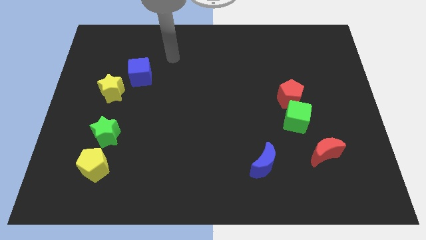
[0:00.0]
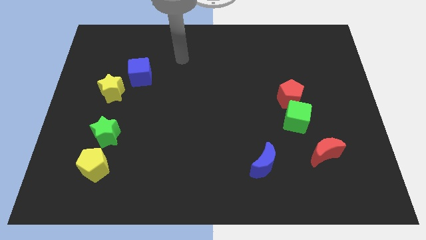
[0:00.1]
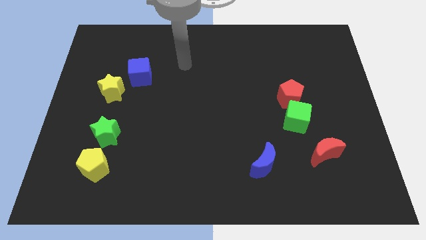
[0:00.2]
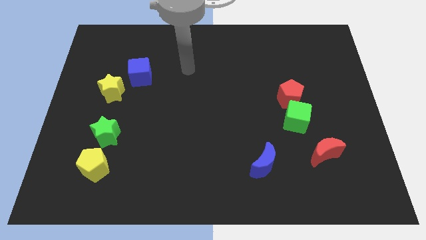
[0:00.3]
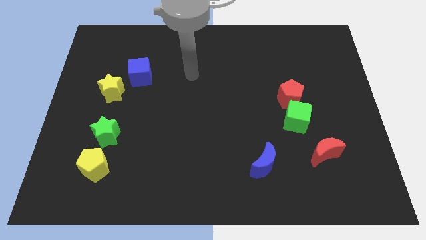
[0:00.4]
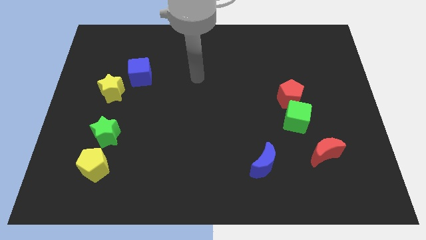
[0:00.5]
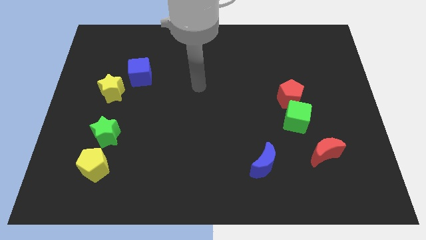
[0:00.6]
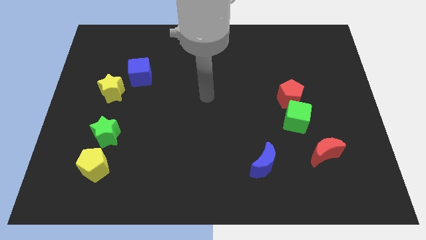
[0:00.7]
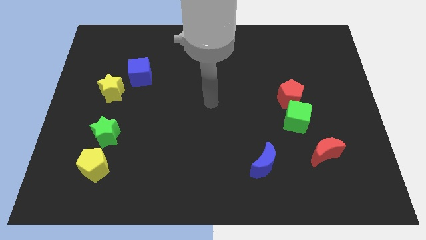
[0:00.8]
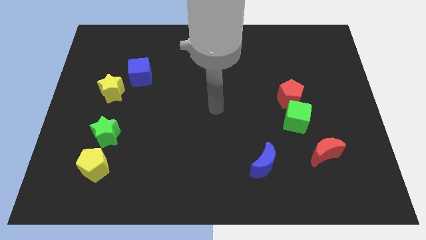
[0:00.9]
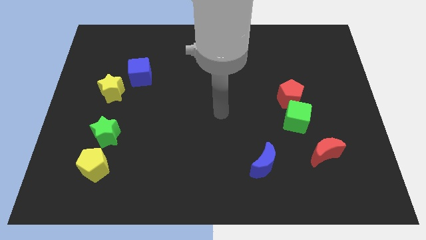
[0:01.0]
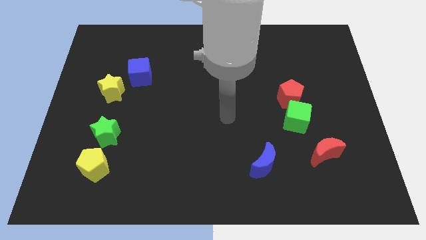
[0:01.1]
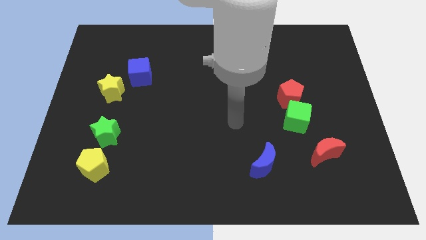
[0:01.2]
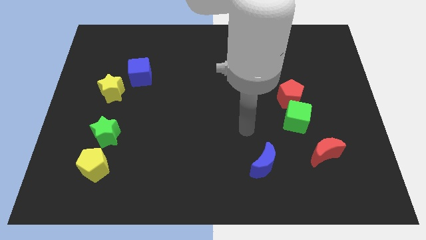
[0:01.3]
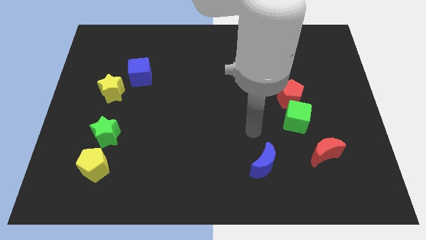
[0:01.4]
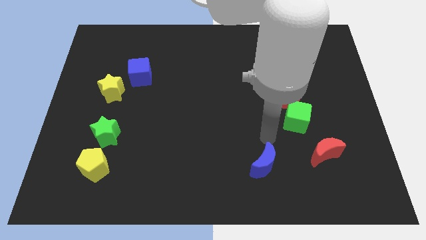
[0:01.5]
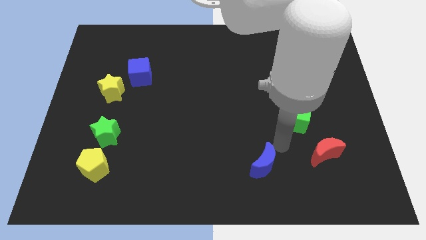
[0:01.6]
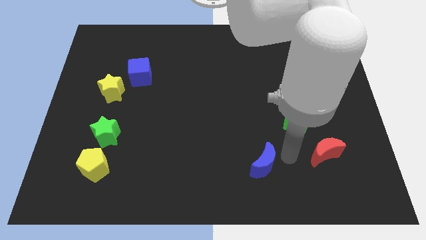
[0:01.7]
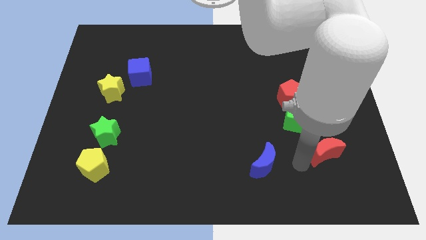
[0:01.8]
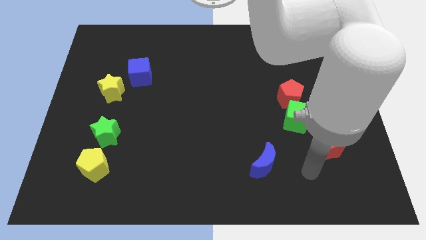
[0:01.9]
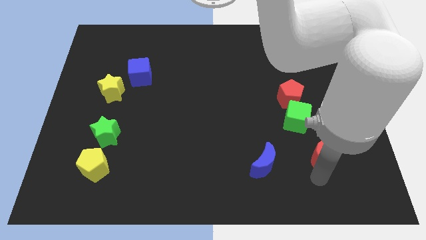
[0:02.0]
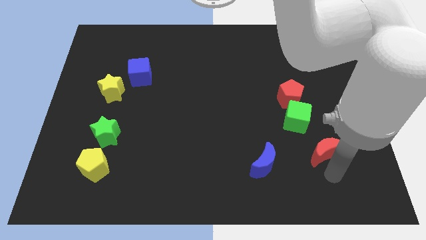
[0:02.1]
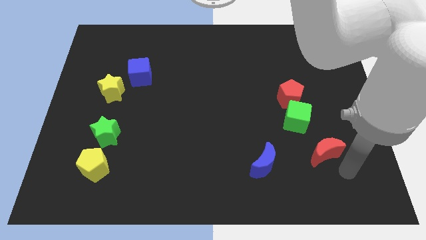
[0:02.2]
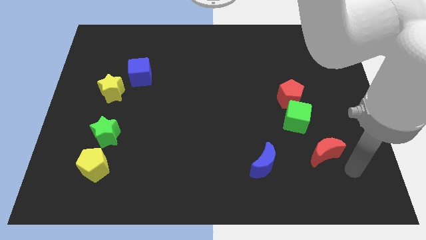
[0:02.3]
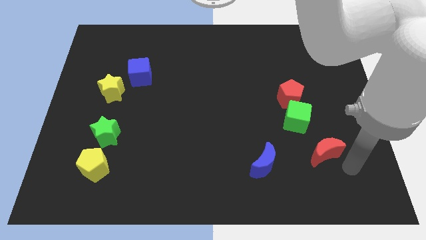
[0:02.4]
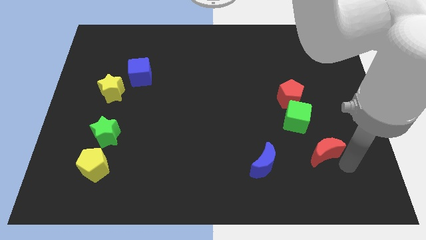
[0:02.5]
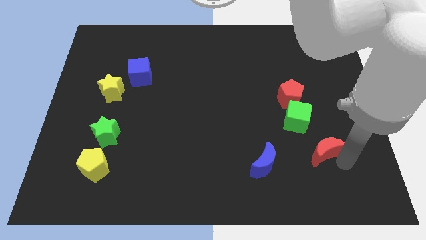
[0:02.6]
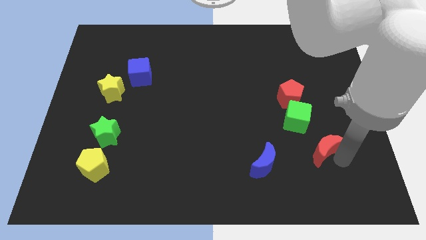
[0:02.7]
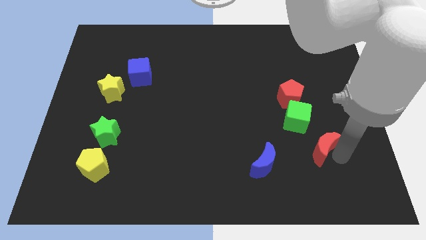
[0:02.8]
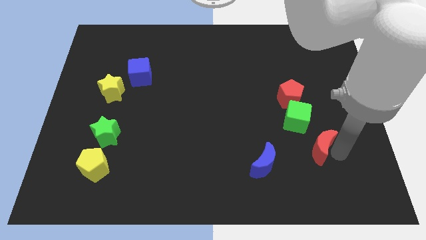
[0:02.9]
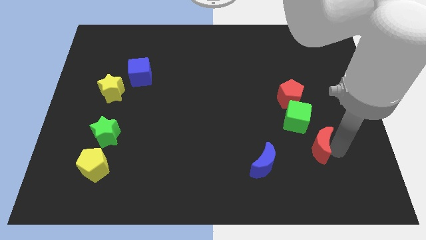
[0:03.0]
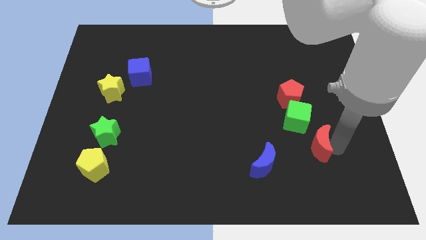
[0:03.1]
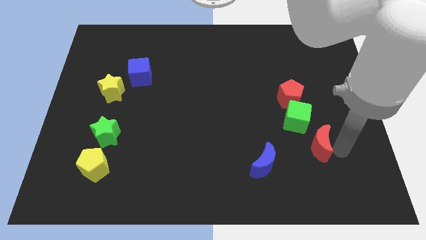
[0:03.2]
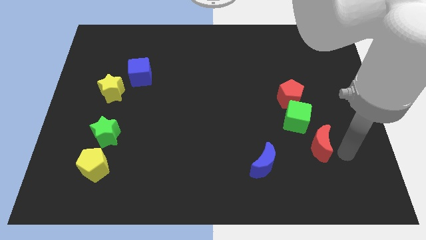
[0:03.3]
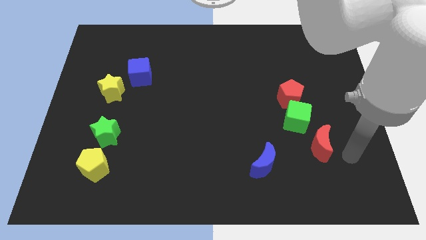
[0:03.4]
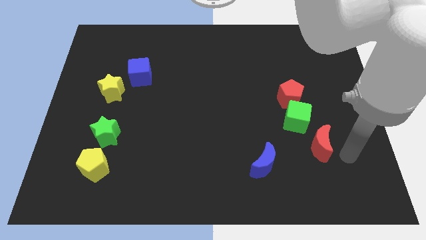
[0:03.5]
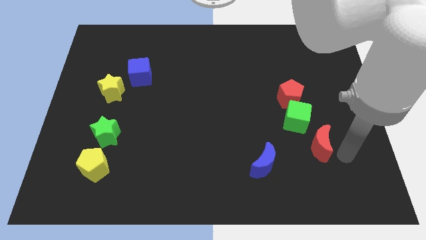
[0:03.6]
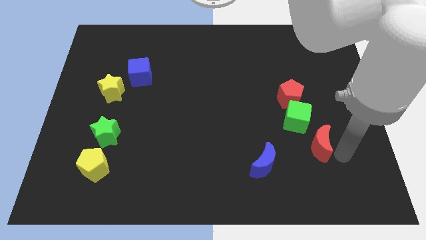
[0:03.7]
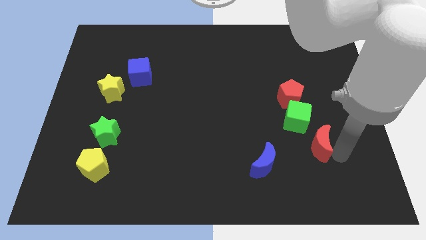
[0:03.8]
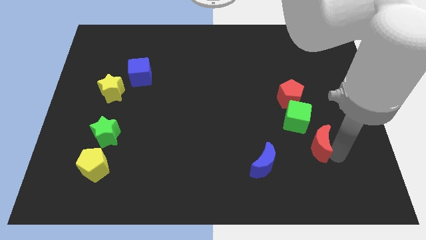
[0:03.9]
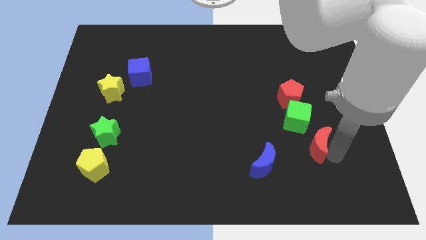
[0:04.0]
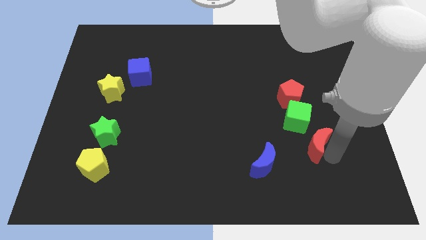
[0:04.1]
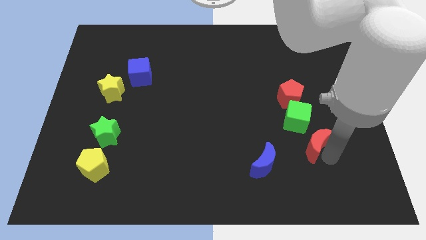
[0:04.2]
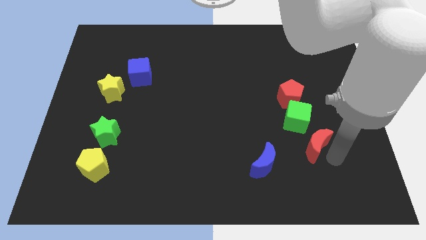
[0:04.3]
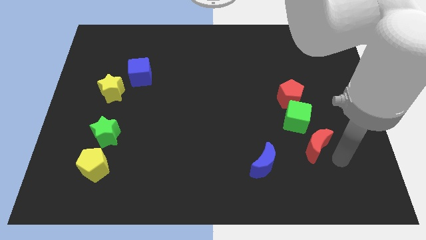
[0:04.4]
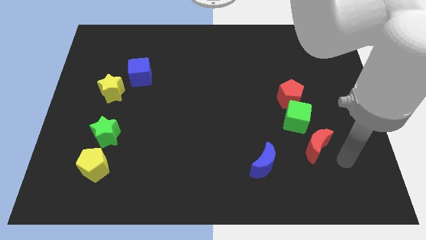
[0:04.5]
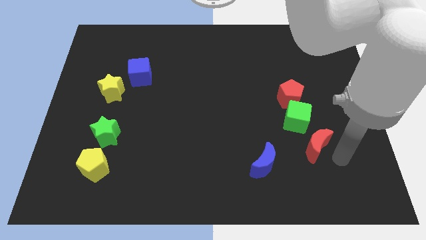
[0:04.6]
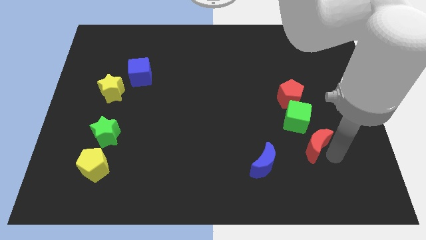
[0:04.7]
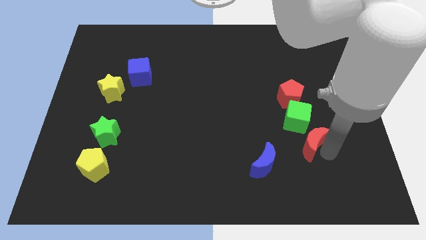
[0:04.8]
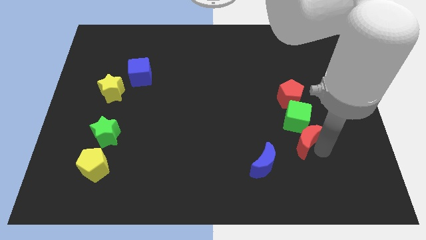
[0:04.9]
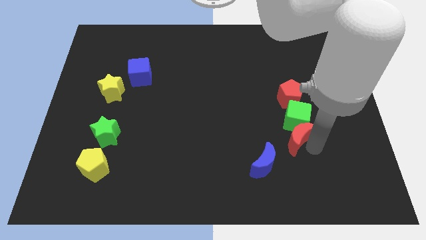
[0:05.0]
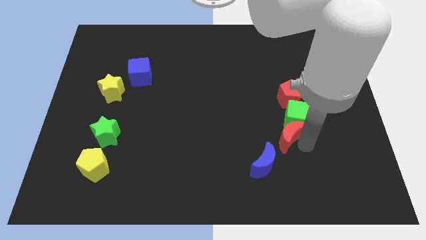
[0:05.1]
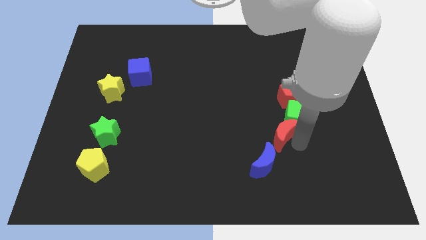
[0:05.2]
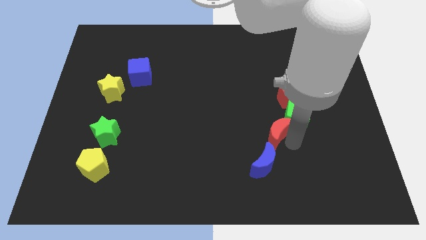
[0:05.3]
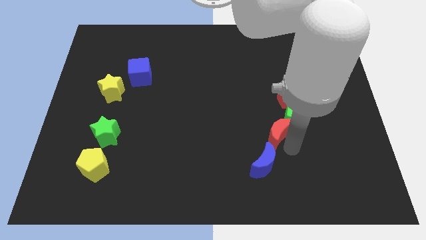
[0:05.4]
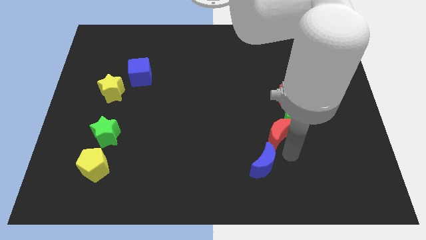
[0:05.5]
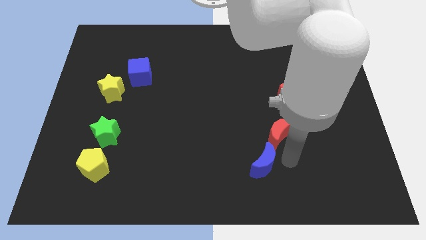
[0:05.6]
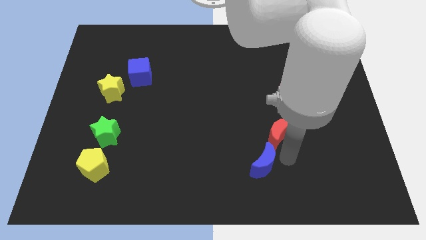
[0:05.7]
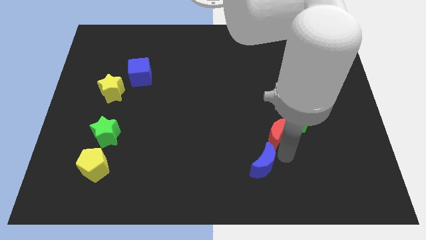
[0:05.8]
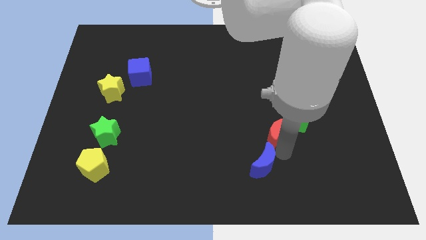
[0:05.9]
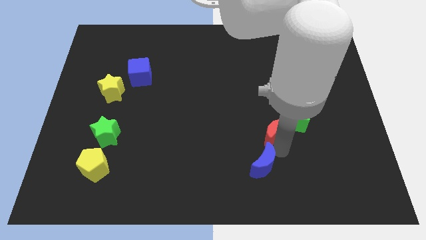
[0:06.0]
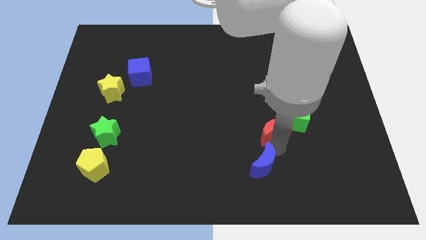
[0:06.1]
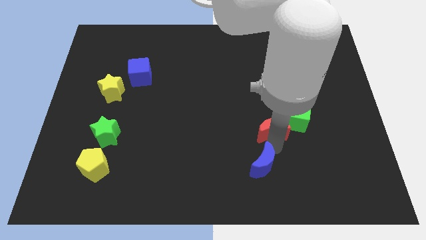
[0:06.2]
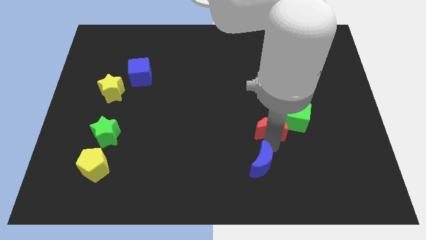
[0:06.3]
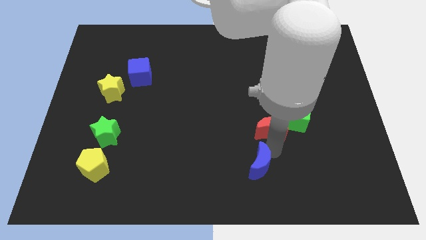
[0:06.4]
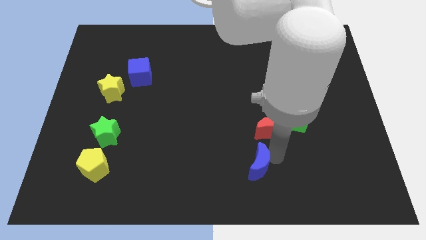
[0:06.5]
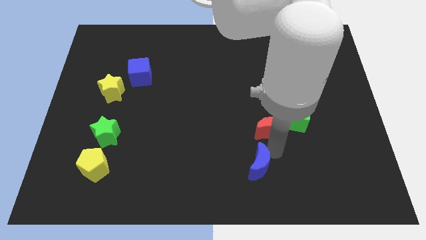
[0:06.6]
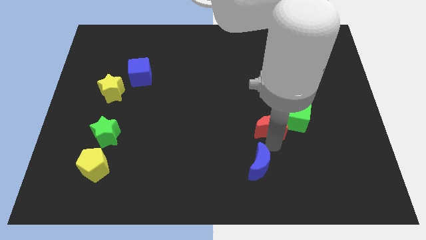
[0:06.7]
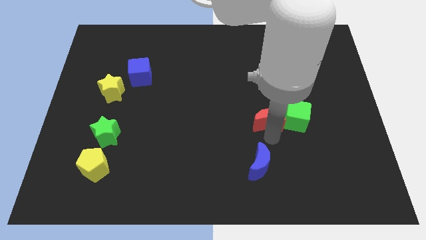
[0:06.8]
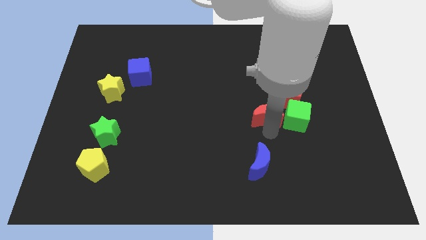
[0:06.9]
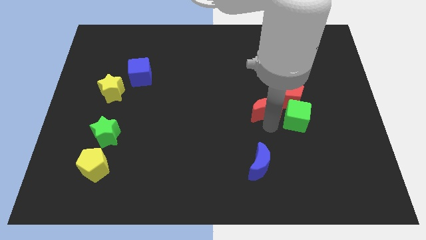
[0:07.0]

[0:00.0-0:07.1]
slide the red moon left of the red pentagon

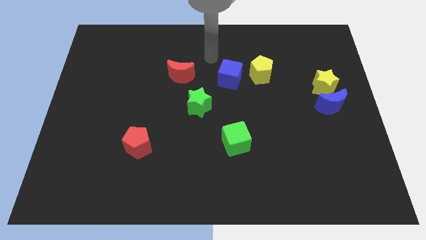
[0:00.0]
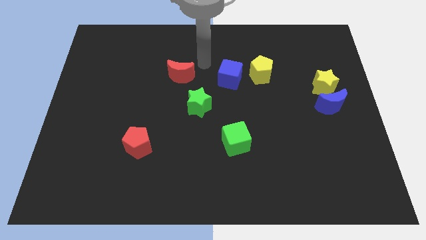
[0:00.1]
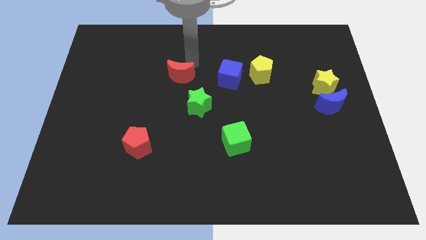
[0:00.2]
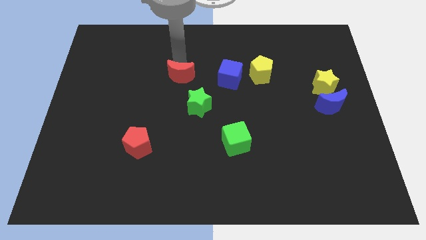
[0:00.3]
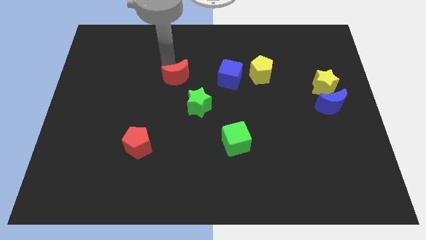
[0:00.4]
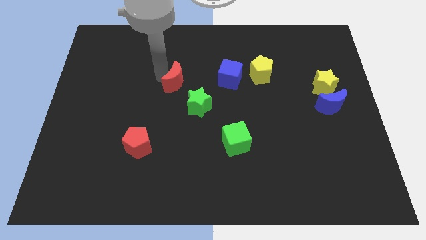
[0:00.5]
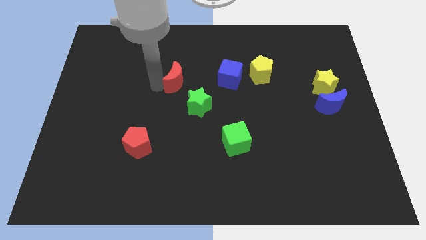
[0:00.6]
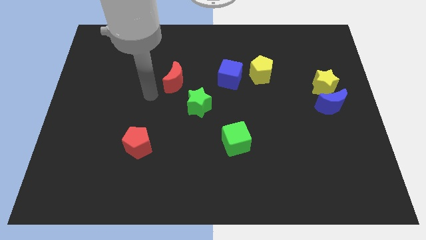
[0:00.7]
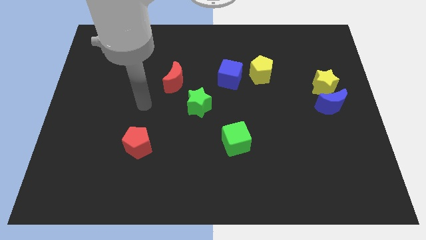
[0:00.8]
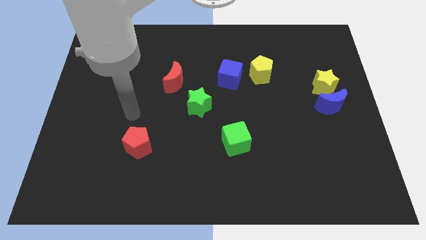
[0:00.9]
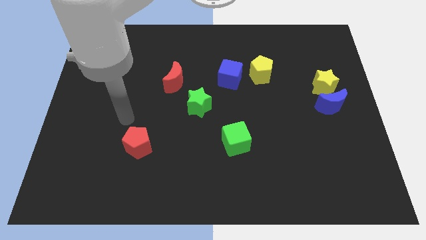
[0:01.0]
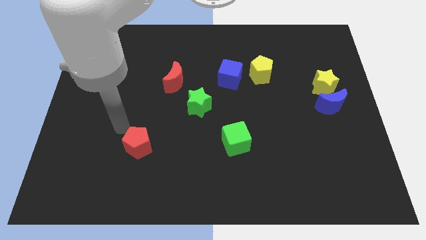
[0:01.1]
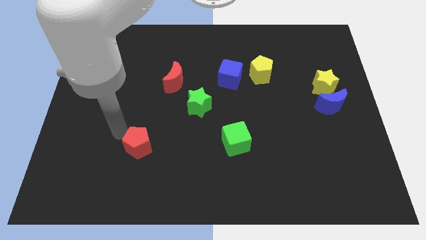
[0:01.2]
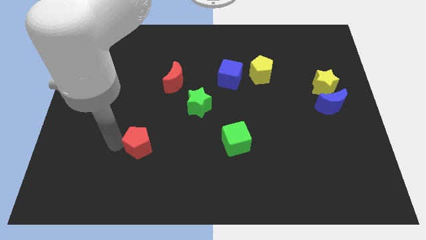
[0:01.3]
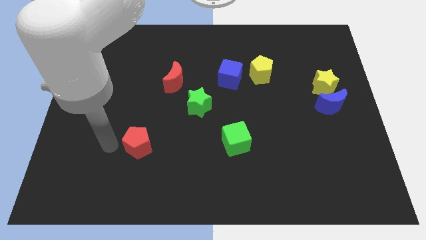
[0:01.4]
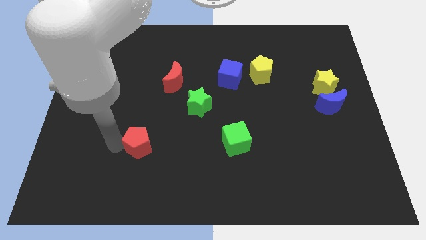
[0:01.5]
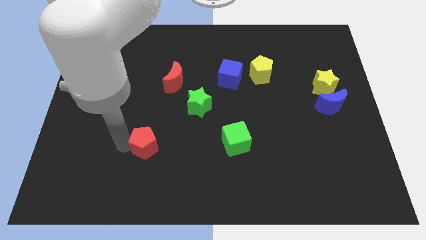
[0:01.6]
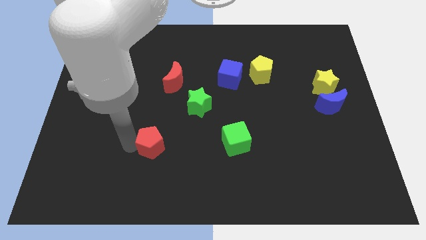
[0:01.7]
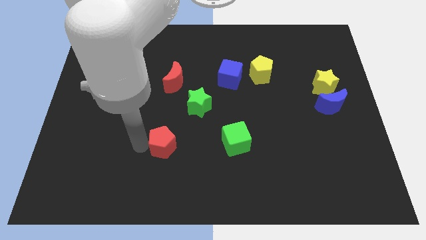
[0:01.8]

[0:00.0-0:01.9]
push the red pentagon to the left side of the green cube
